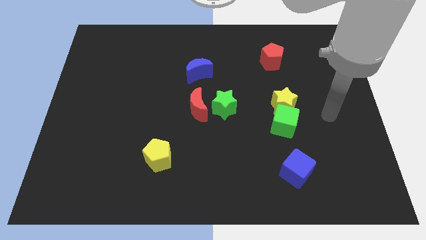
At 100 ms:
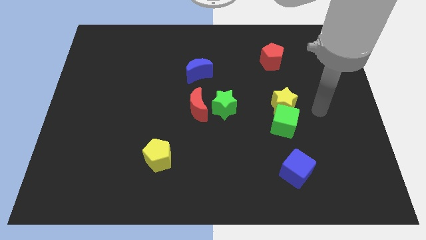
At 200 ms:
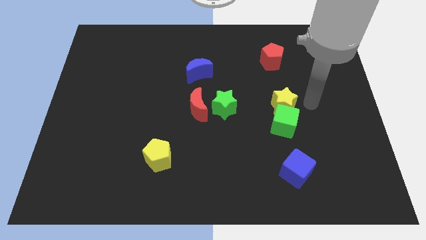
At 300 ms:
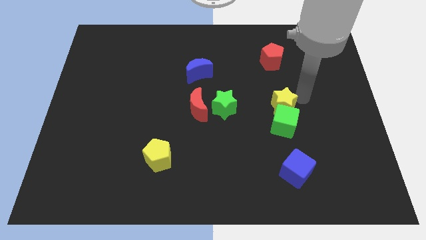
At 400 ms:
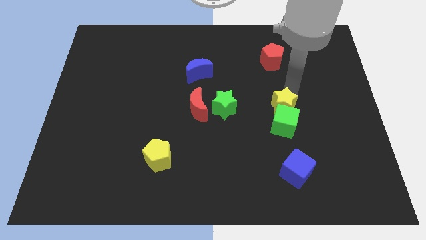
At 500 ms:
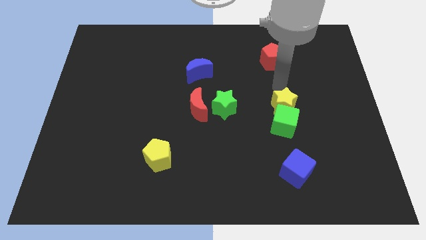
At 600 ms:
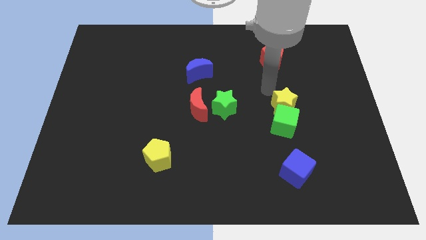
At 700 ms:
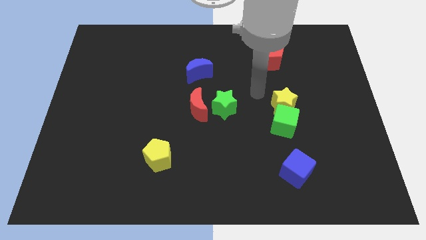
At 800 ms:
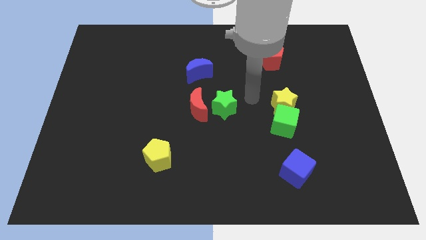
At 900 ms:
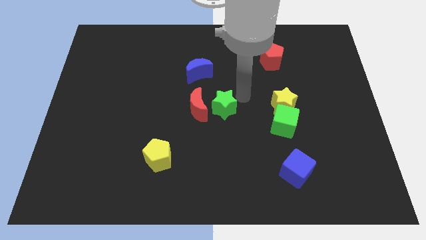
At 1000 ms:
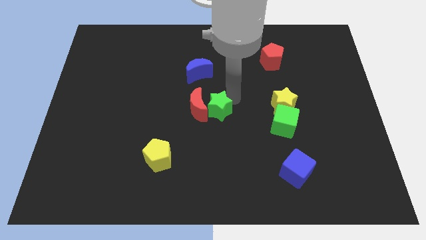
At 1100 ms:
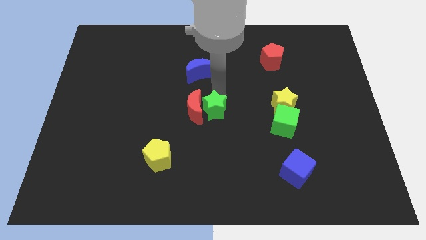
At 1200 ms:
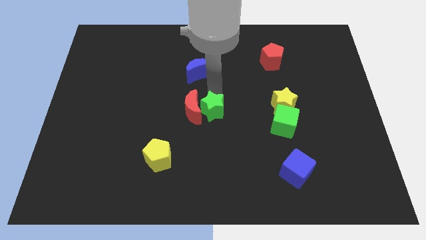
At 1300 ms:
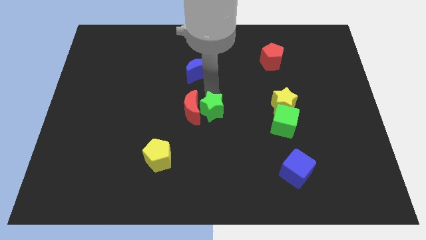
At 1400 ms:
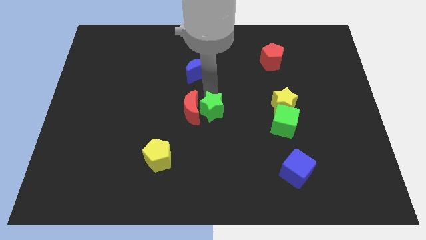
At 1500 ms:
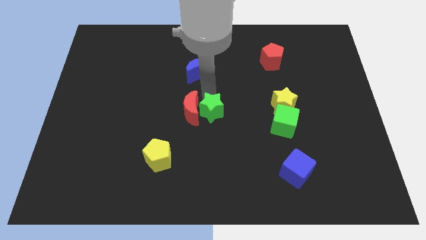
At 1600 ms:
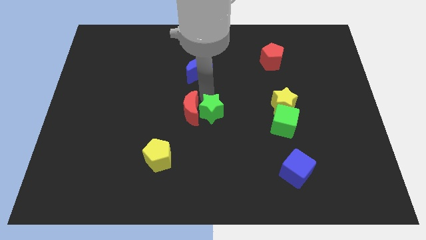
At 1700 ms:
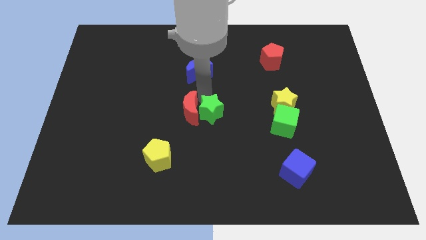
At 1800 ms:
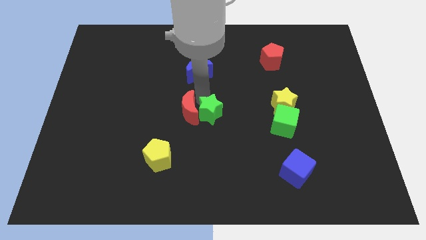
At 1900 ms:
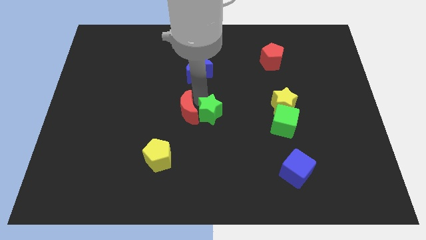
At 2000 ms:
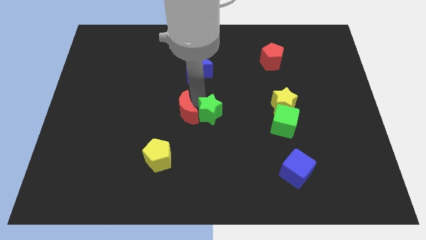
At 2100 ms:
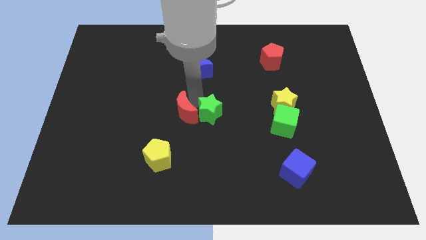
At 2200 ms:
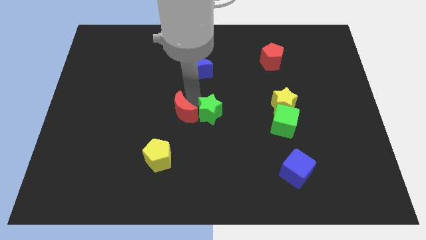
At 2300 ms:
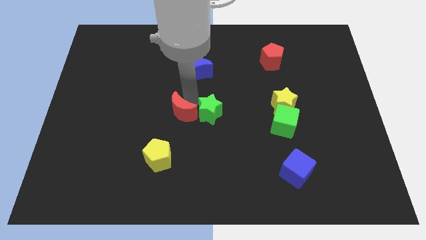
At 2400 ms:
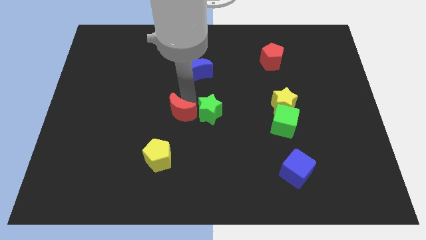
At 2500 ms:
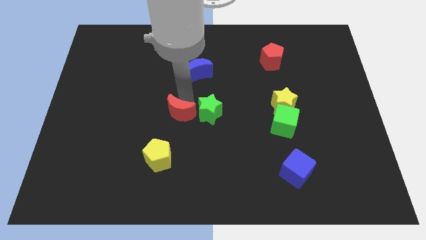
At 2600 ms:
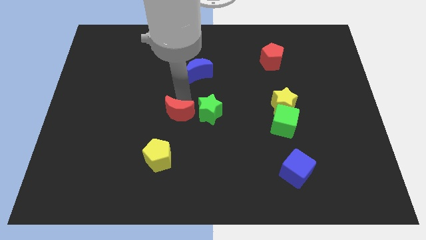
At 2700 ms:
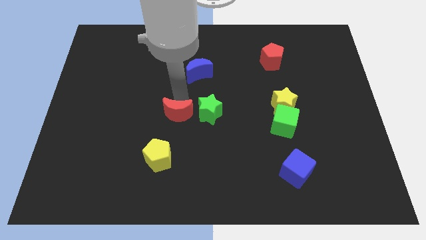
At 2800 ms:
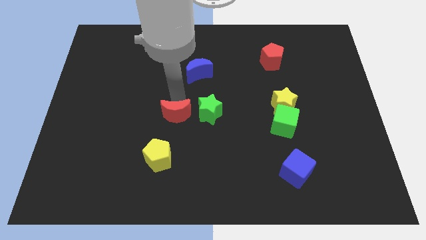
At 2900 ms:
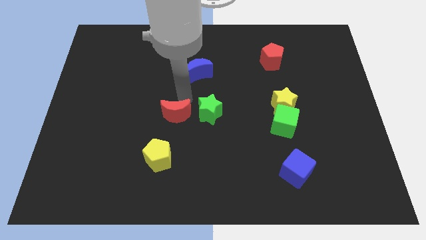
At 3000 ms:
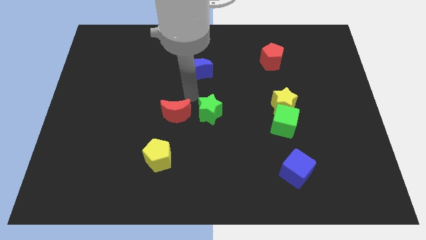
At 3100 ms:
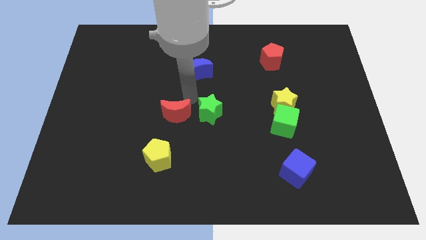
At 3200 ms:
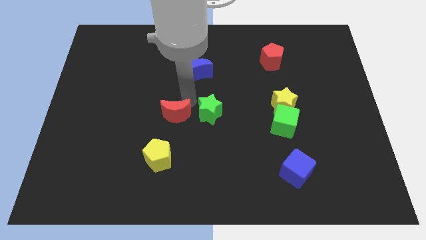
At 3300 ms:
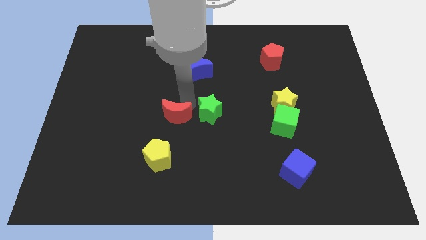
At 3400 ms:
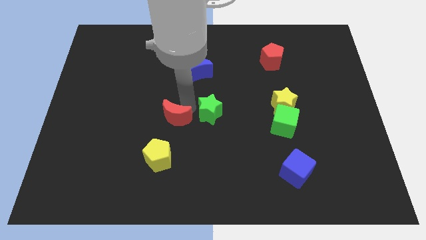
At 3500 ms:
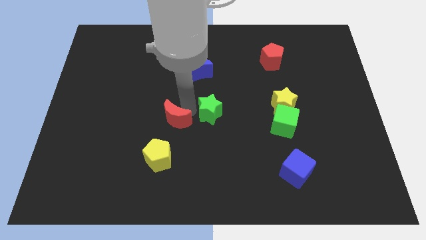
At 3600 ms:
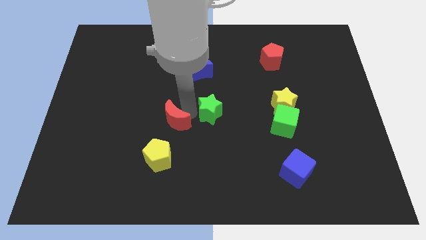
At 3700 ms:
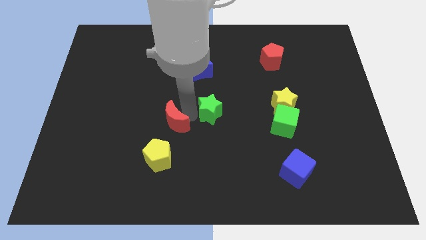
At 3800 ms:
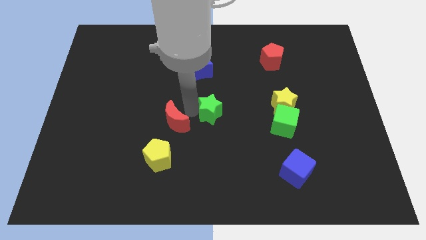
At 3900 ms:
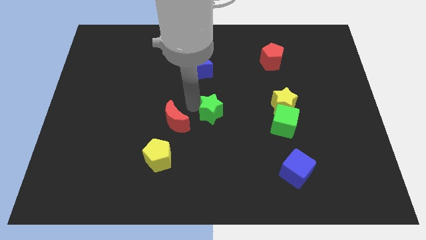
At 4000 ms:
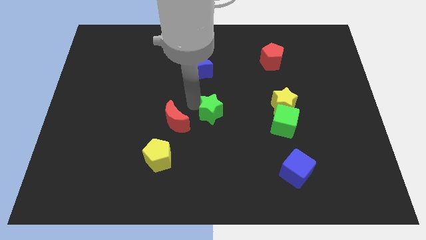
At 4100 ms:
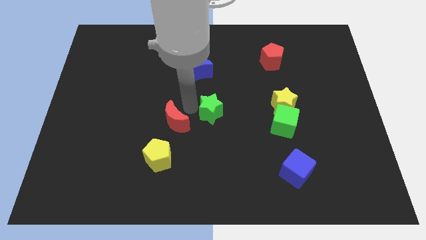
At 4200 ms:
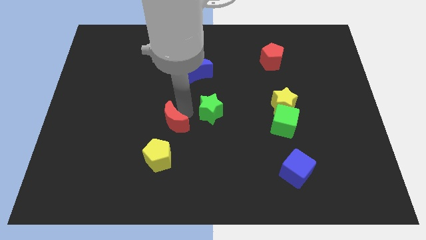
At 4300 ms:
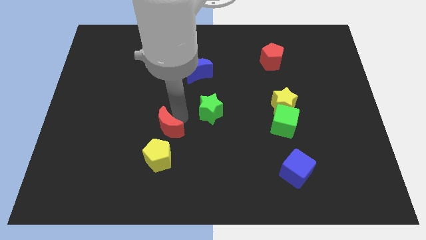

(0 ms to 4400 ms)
slightly slide the red moon down and to the left

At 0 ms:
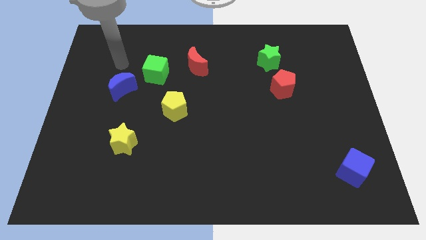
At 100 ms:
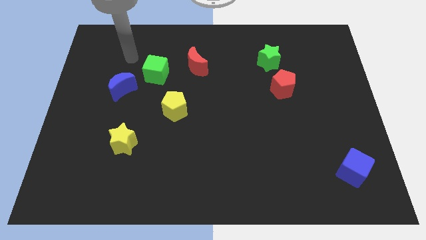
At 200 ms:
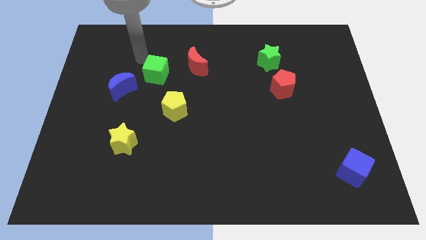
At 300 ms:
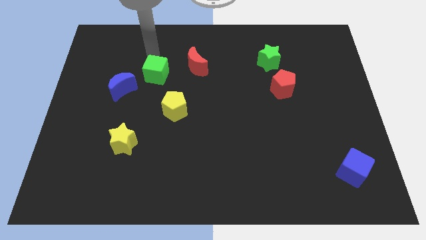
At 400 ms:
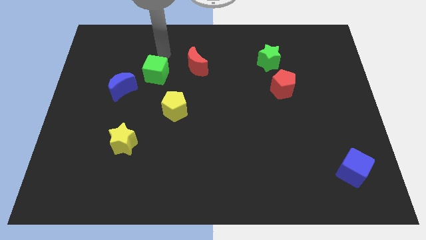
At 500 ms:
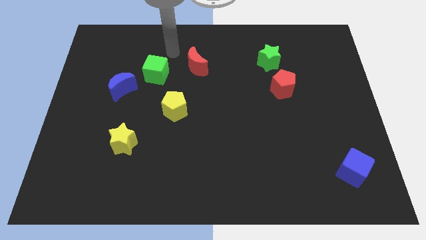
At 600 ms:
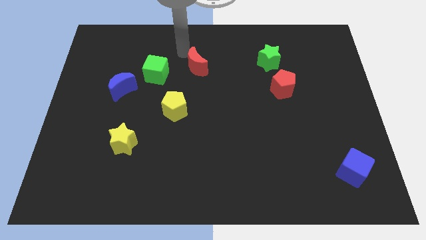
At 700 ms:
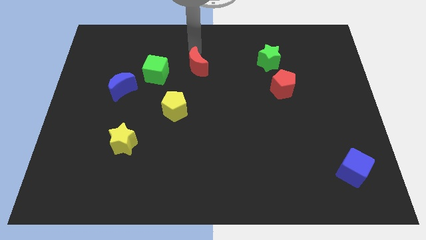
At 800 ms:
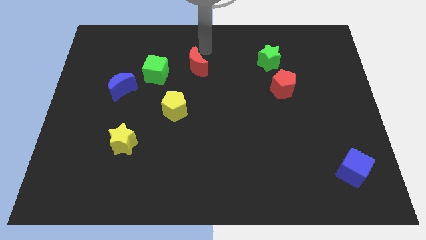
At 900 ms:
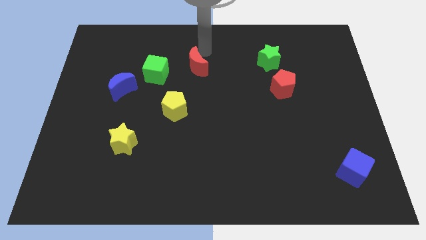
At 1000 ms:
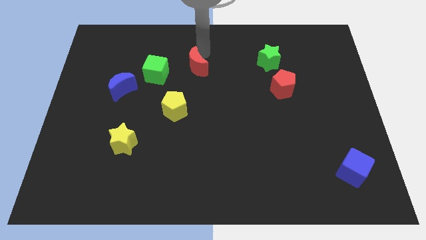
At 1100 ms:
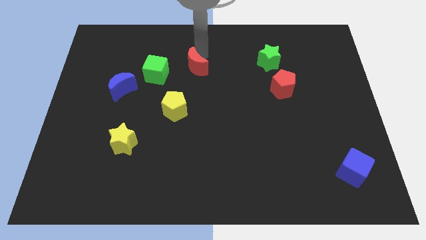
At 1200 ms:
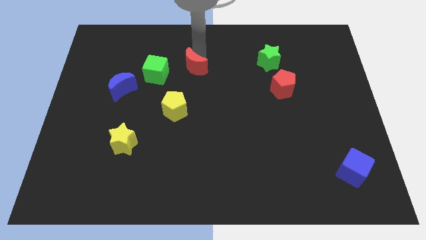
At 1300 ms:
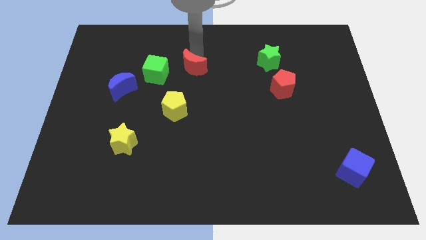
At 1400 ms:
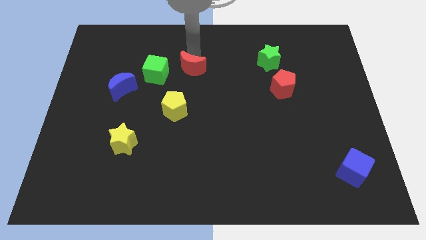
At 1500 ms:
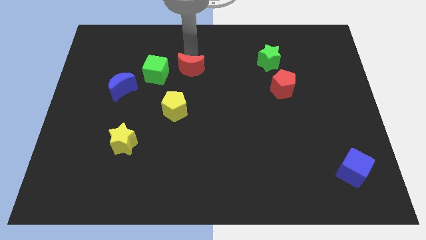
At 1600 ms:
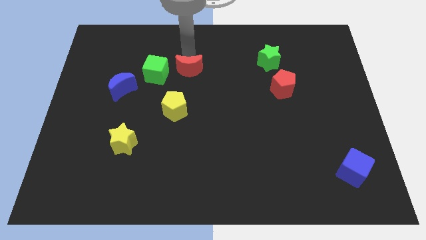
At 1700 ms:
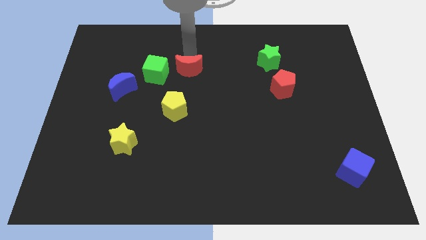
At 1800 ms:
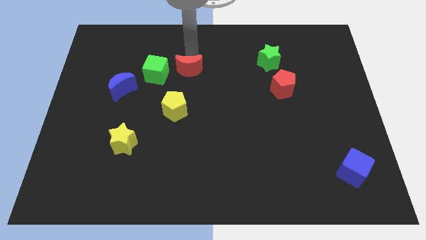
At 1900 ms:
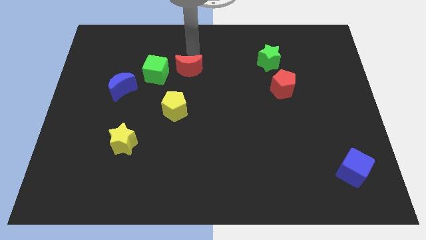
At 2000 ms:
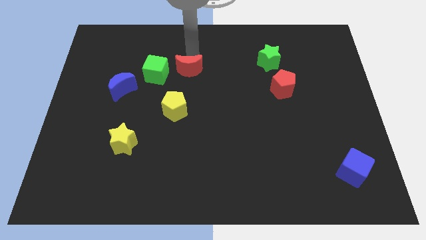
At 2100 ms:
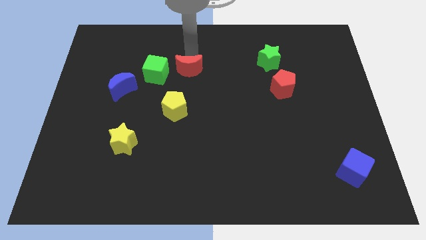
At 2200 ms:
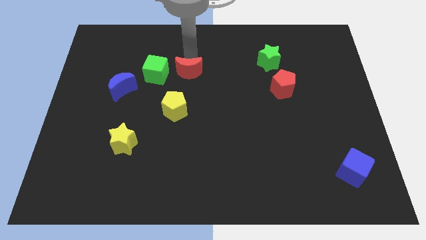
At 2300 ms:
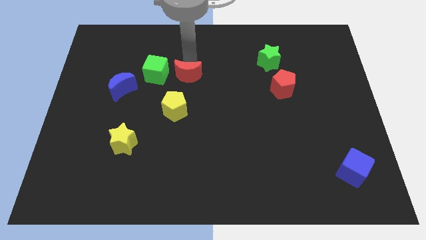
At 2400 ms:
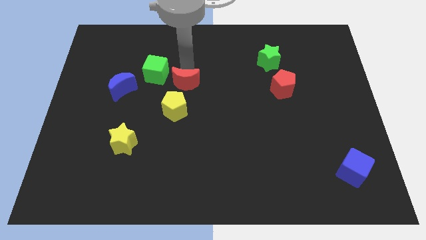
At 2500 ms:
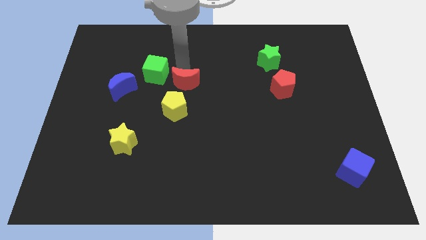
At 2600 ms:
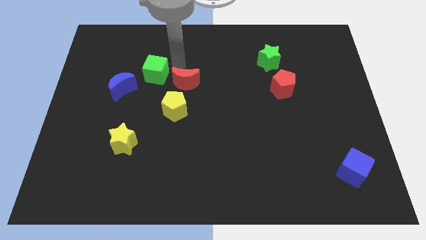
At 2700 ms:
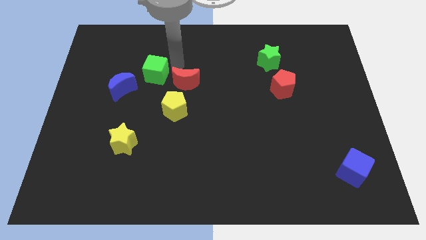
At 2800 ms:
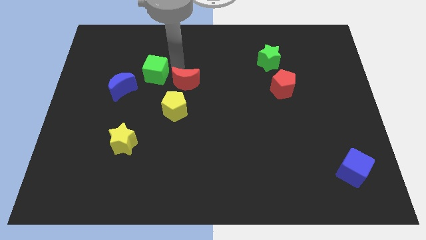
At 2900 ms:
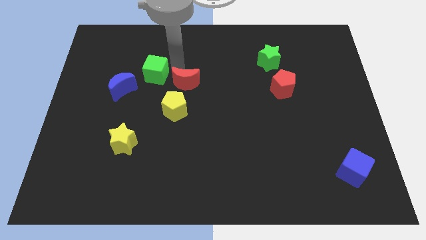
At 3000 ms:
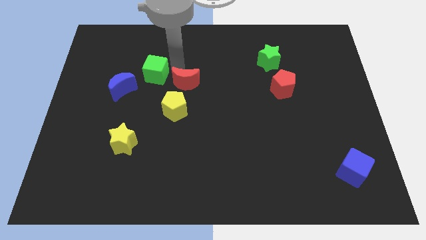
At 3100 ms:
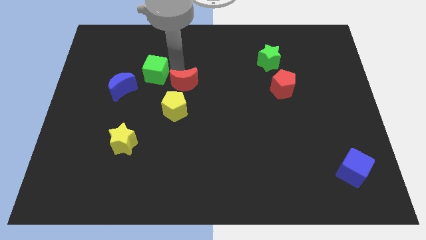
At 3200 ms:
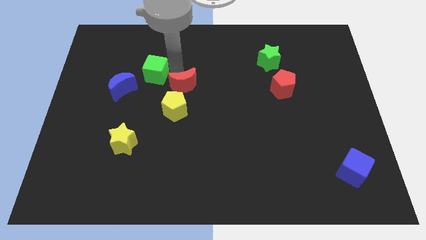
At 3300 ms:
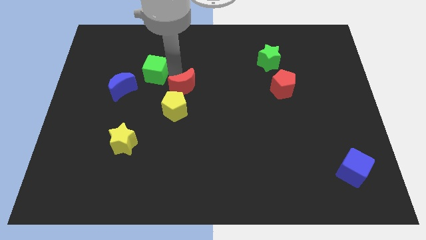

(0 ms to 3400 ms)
slightly push the red moon down

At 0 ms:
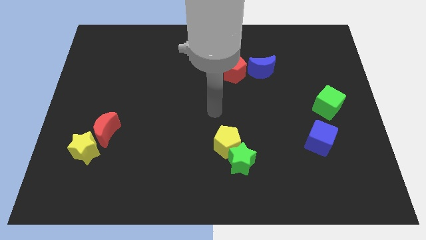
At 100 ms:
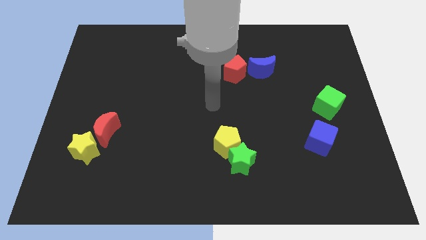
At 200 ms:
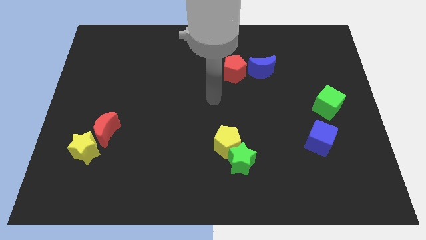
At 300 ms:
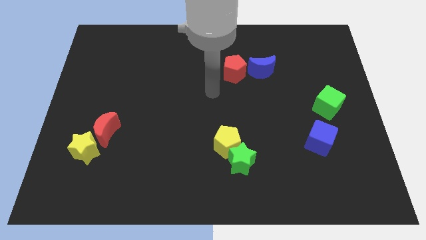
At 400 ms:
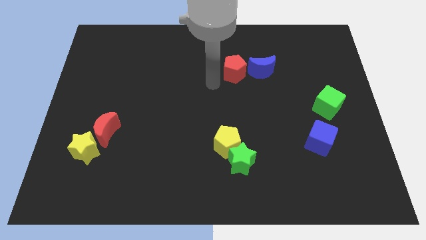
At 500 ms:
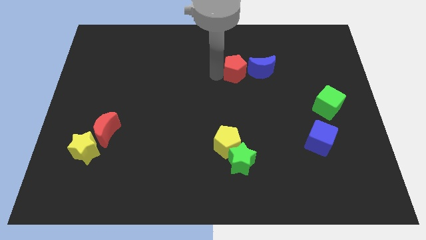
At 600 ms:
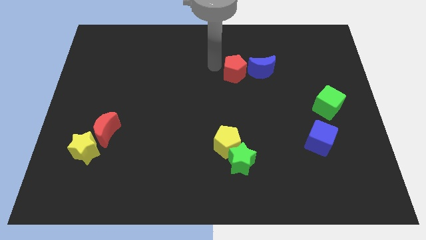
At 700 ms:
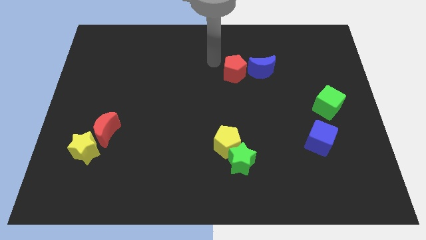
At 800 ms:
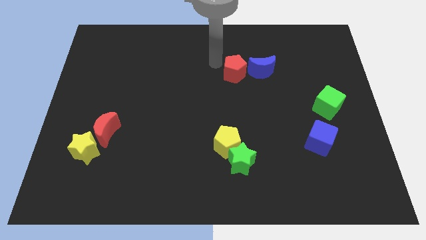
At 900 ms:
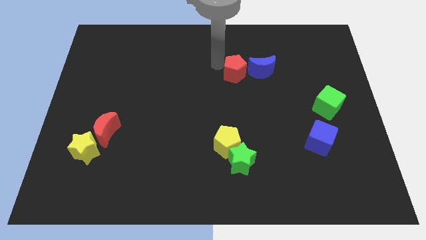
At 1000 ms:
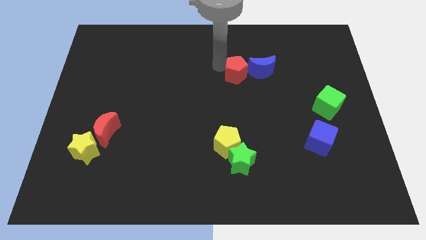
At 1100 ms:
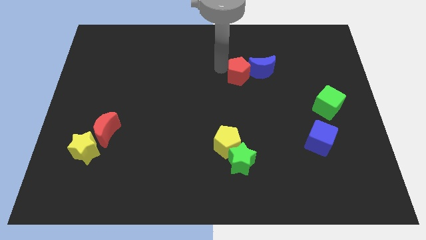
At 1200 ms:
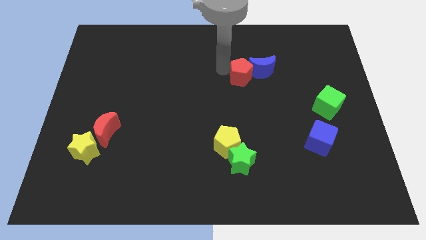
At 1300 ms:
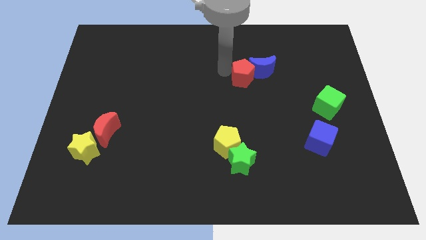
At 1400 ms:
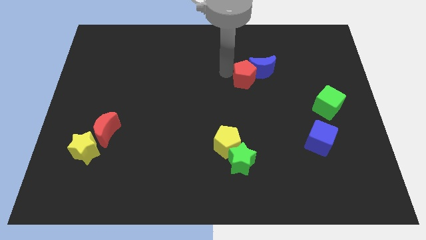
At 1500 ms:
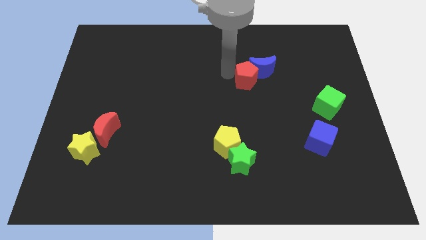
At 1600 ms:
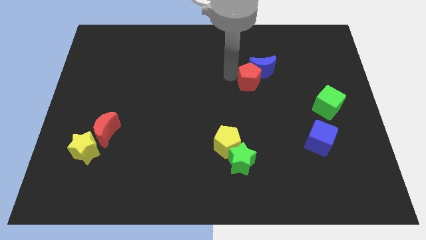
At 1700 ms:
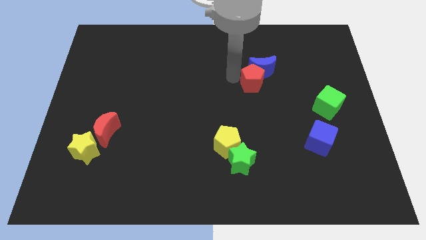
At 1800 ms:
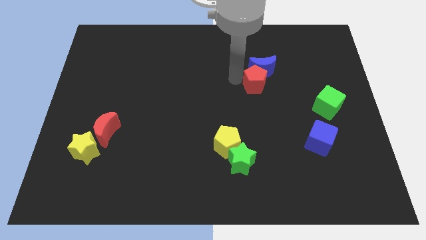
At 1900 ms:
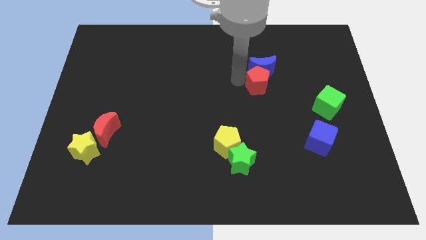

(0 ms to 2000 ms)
slightly move the red pentagon down and right
